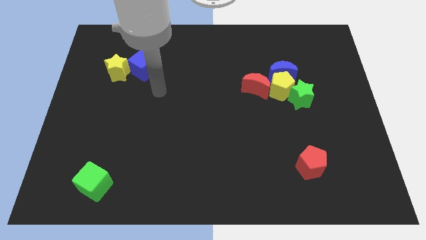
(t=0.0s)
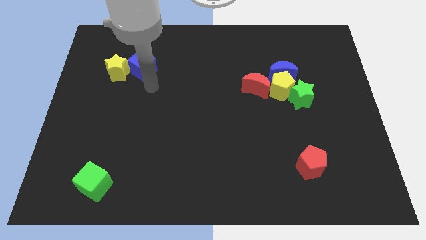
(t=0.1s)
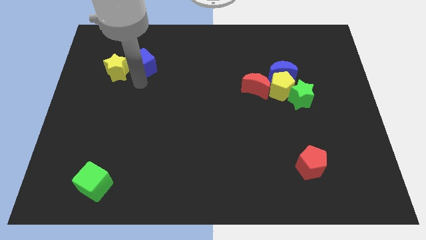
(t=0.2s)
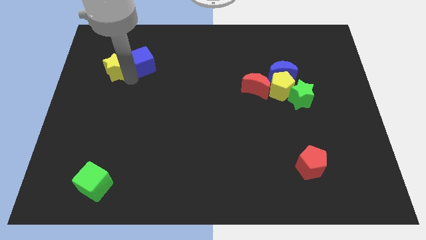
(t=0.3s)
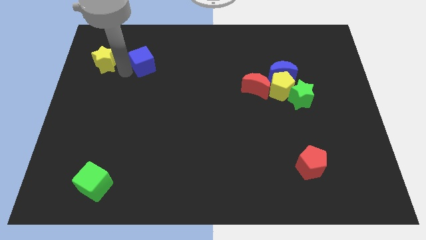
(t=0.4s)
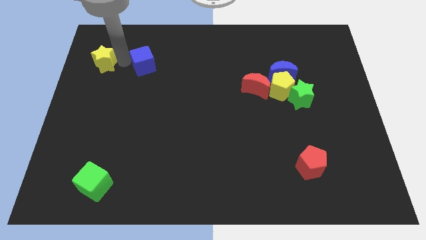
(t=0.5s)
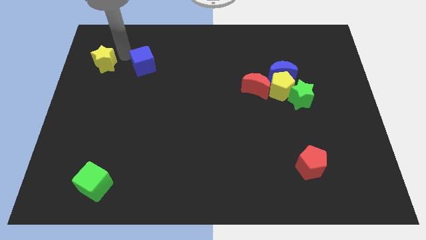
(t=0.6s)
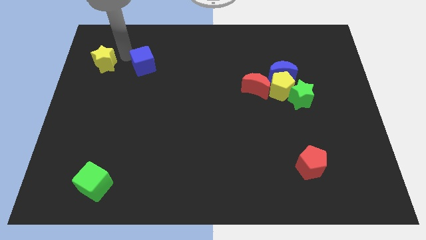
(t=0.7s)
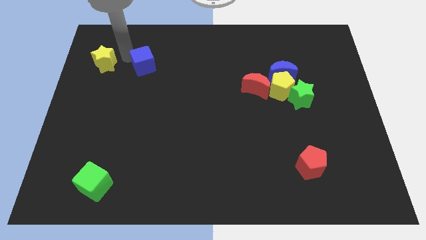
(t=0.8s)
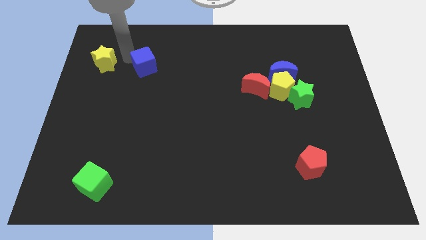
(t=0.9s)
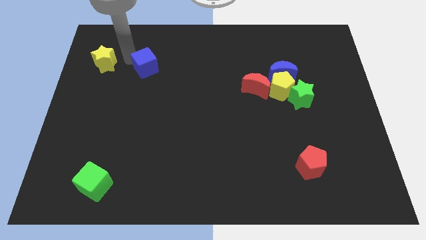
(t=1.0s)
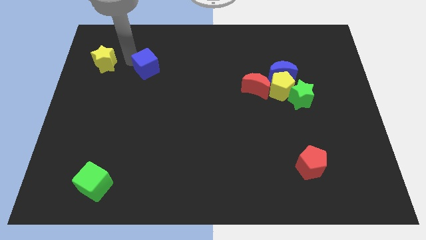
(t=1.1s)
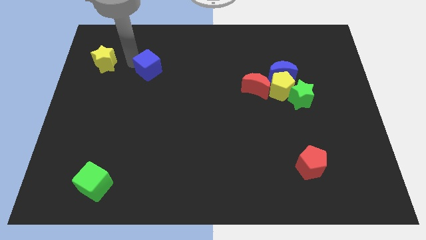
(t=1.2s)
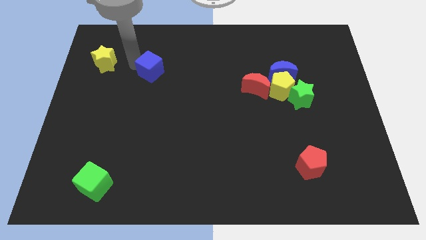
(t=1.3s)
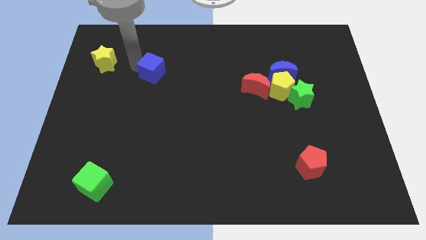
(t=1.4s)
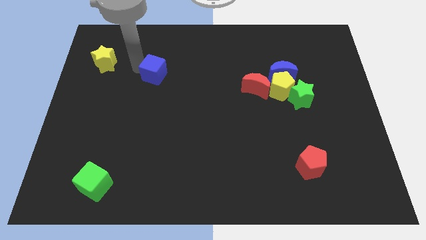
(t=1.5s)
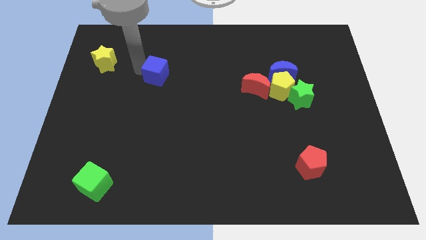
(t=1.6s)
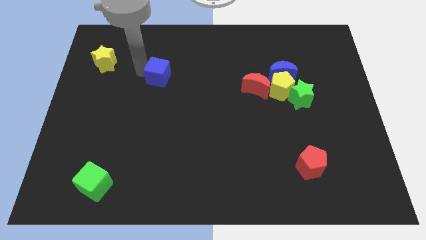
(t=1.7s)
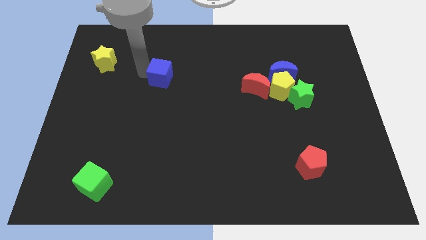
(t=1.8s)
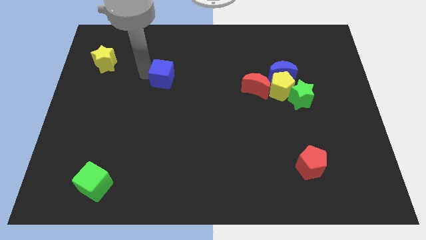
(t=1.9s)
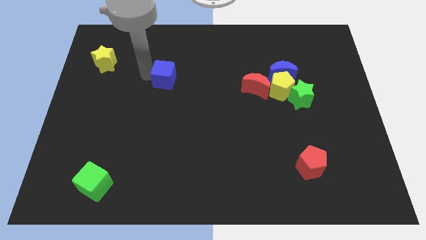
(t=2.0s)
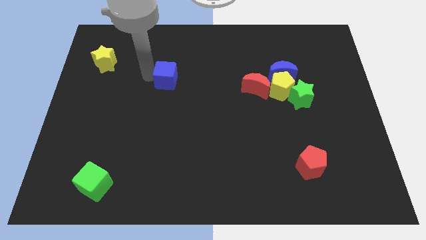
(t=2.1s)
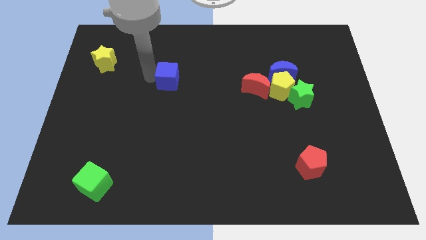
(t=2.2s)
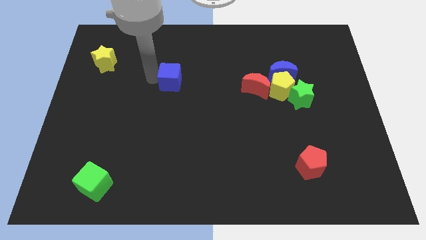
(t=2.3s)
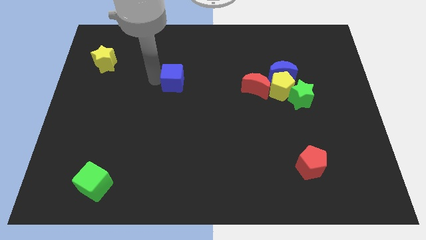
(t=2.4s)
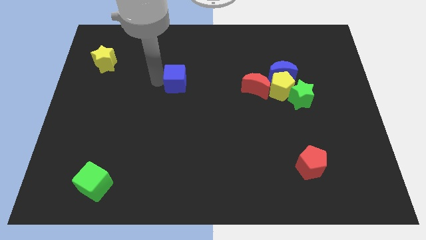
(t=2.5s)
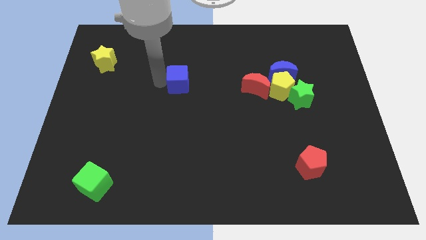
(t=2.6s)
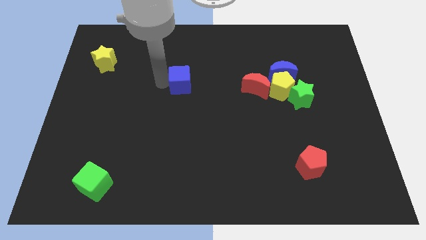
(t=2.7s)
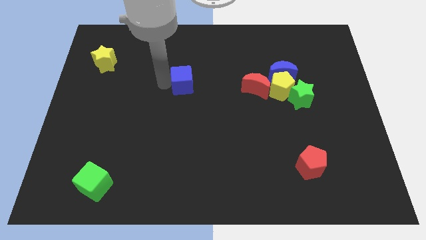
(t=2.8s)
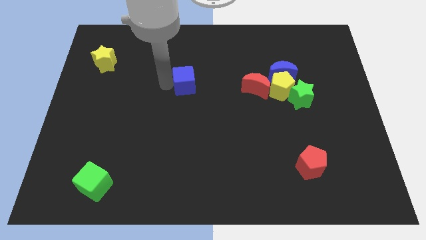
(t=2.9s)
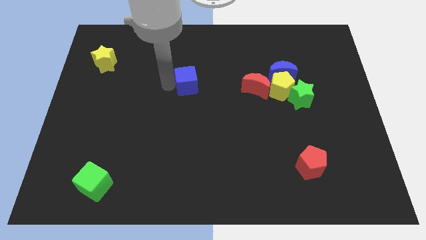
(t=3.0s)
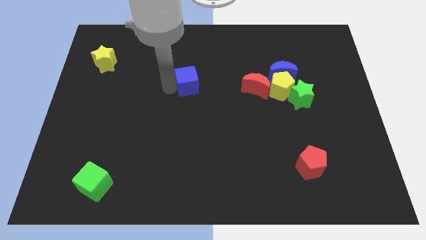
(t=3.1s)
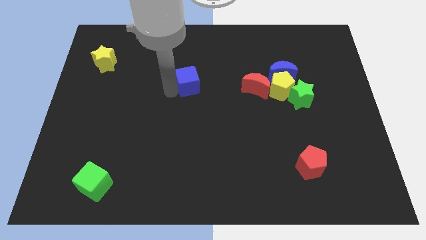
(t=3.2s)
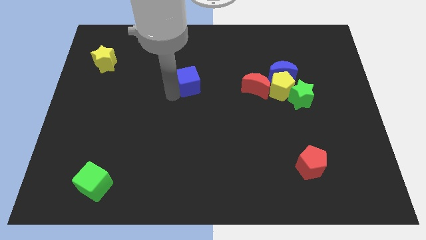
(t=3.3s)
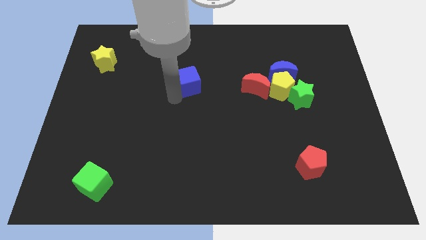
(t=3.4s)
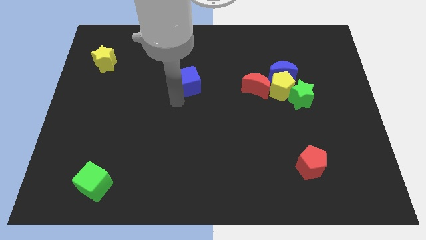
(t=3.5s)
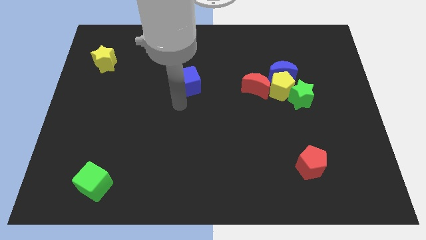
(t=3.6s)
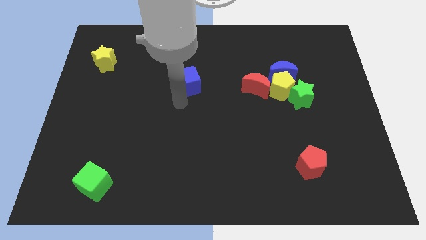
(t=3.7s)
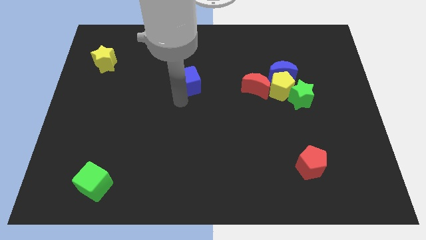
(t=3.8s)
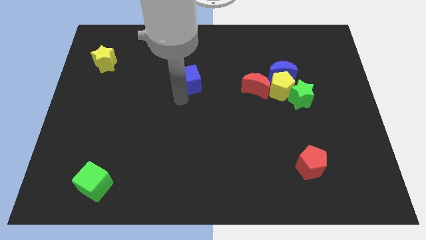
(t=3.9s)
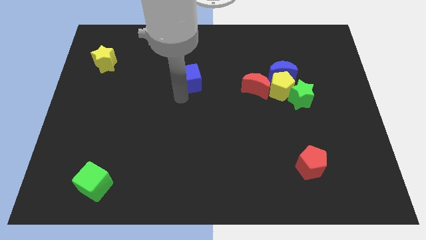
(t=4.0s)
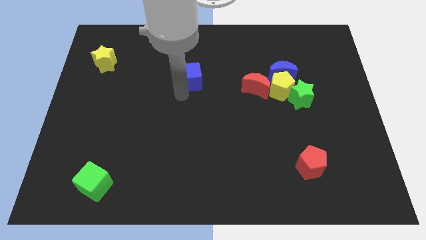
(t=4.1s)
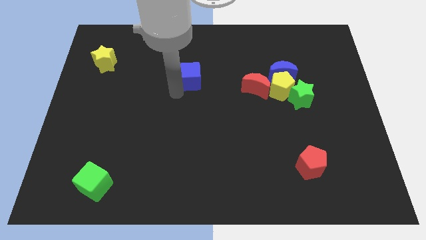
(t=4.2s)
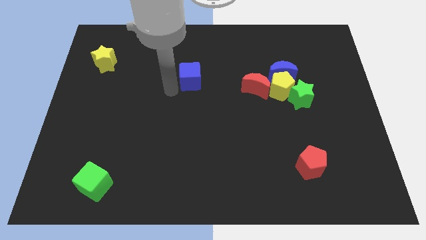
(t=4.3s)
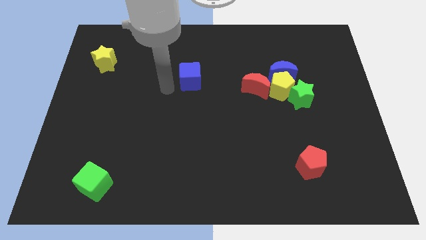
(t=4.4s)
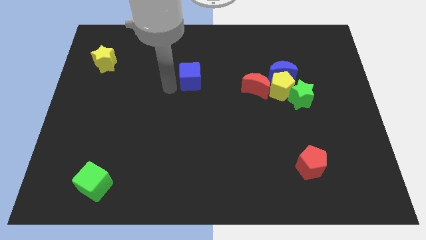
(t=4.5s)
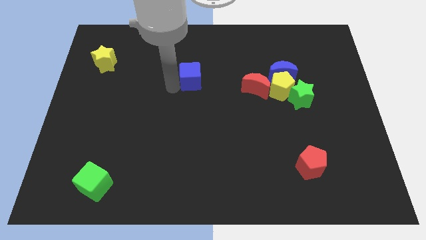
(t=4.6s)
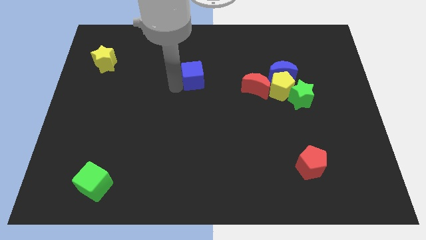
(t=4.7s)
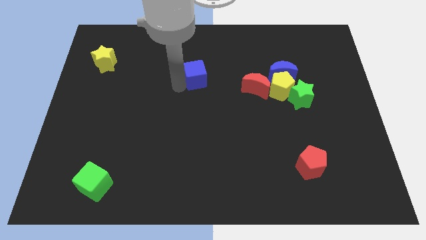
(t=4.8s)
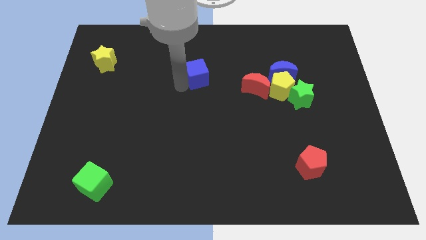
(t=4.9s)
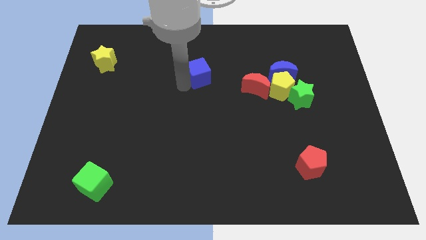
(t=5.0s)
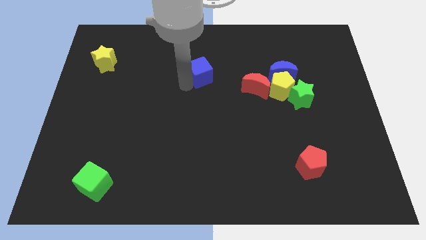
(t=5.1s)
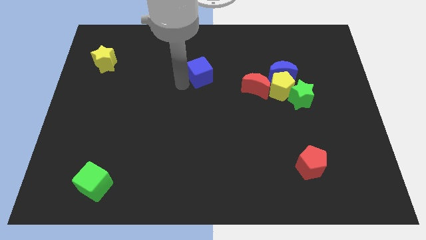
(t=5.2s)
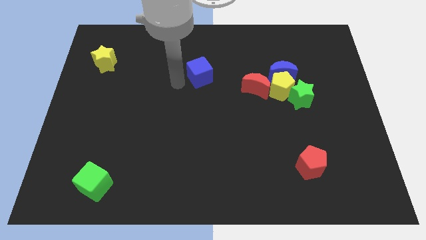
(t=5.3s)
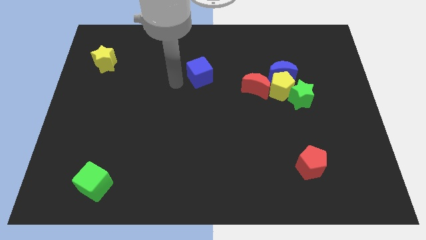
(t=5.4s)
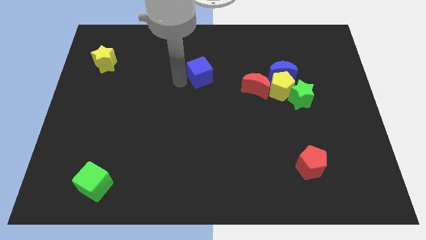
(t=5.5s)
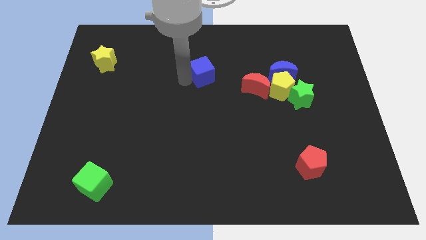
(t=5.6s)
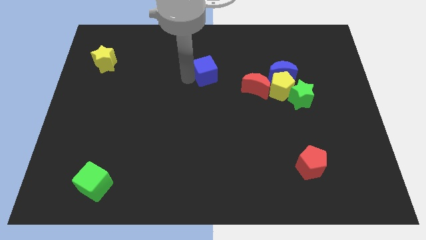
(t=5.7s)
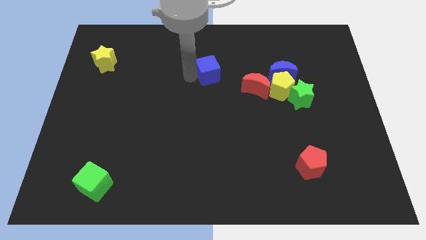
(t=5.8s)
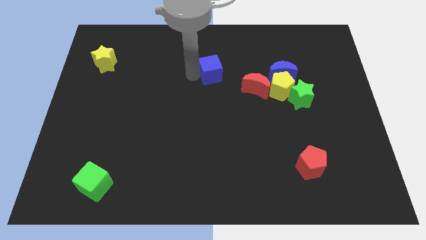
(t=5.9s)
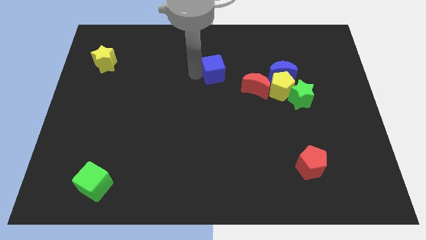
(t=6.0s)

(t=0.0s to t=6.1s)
slide the blue cube to the top left of the red moon
